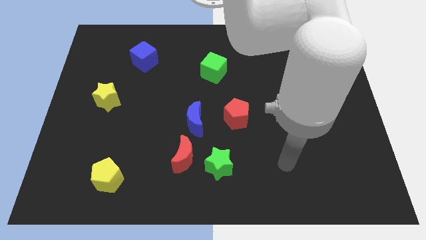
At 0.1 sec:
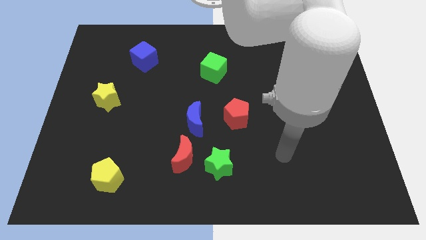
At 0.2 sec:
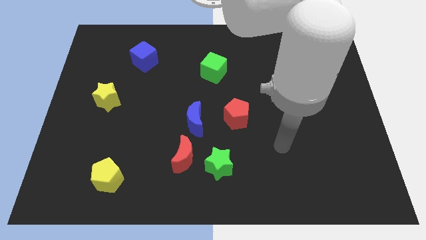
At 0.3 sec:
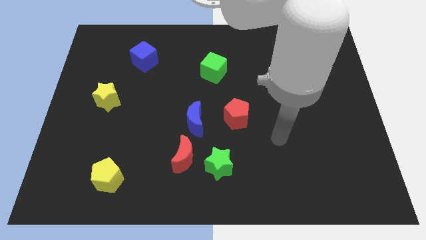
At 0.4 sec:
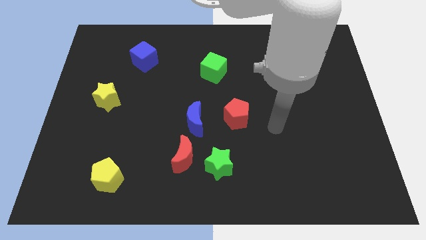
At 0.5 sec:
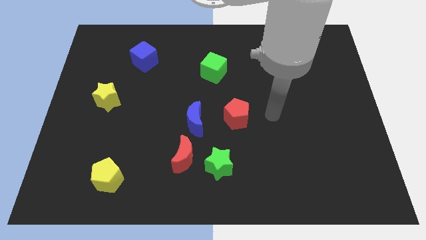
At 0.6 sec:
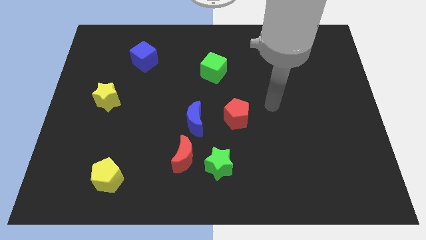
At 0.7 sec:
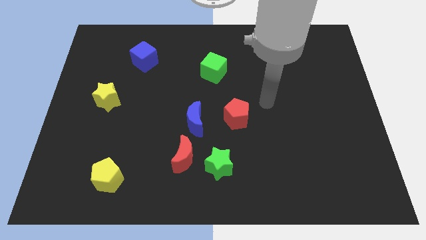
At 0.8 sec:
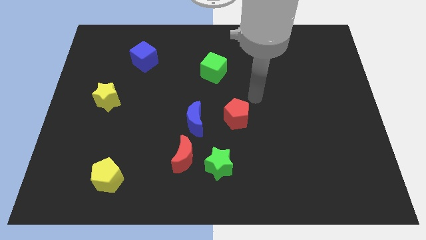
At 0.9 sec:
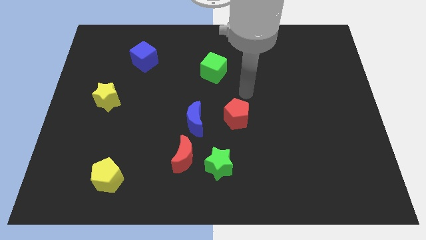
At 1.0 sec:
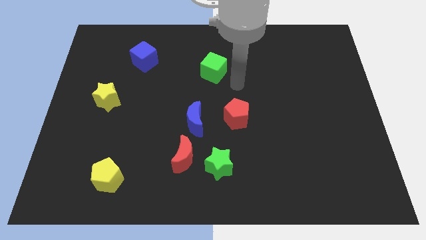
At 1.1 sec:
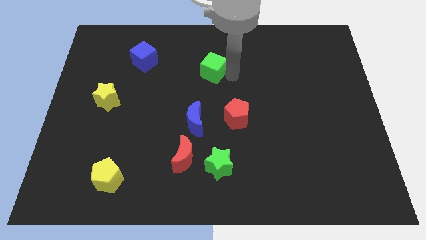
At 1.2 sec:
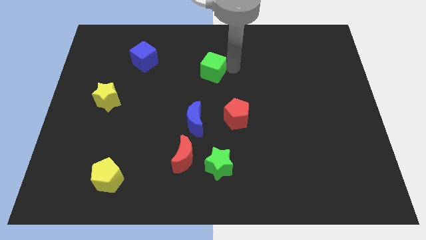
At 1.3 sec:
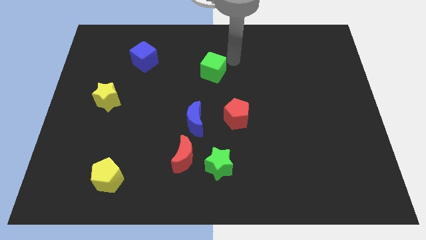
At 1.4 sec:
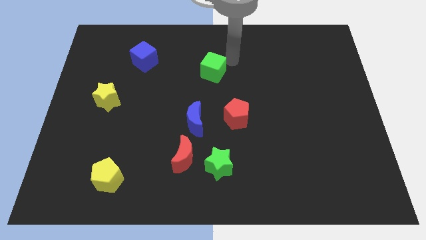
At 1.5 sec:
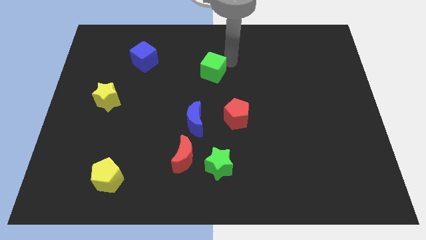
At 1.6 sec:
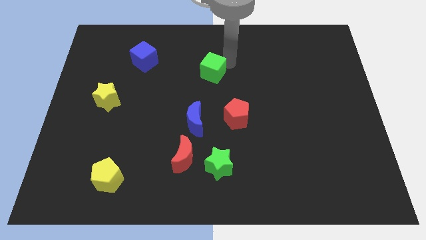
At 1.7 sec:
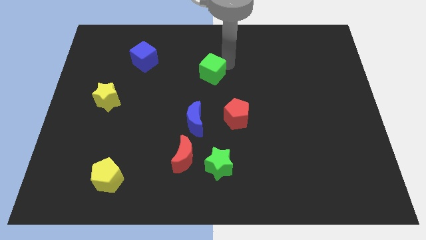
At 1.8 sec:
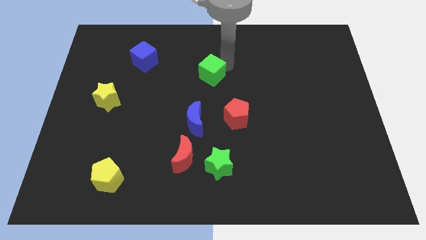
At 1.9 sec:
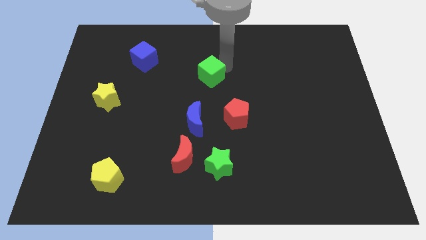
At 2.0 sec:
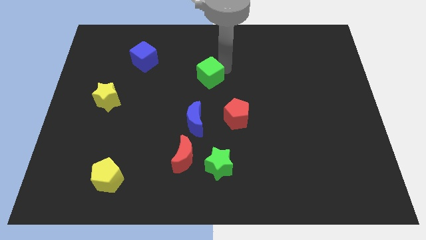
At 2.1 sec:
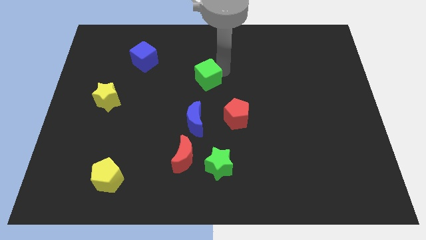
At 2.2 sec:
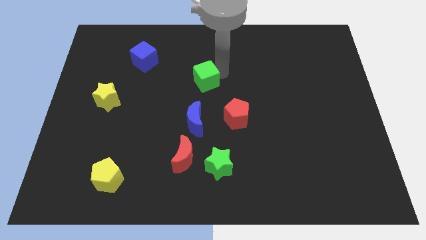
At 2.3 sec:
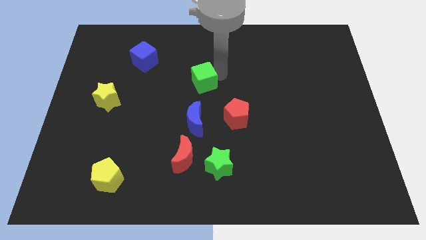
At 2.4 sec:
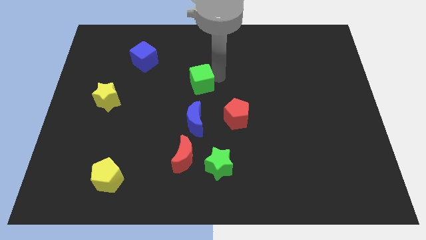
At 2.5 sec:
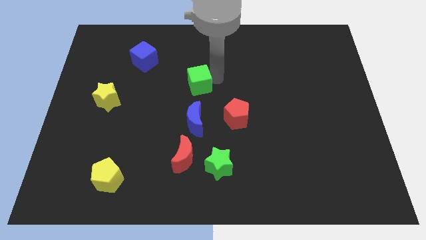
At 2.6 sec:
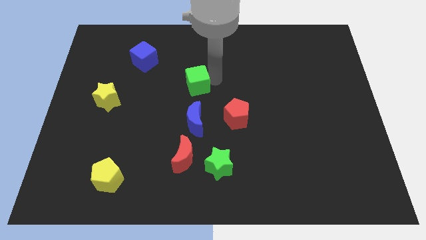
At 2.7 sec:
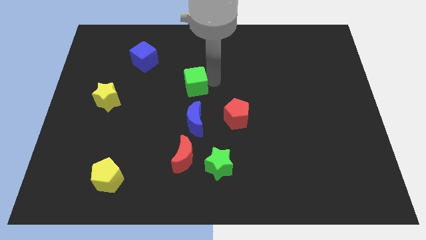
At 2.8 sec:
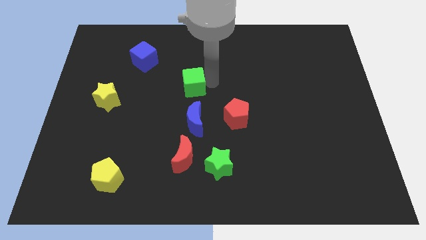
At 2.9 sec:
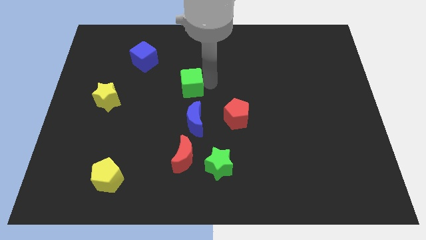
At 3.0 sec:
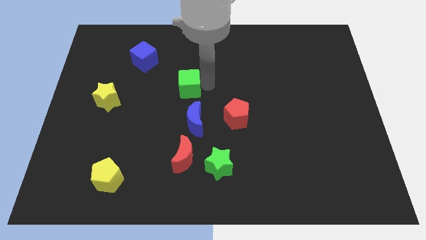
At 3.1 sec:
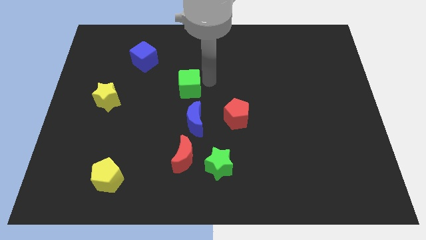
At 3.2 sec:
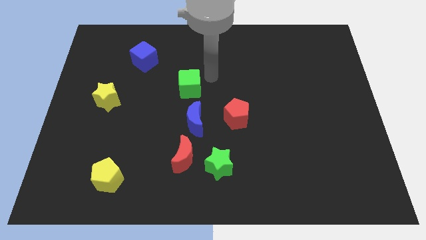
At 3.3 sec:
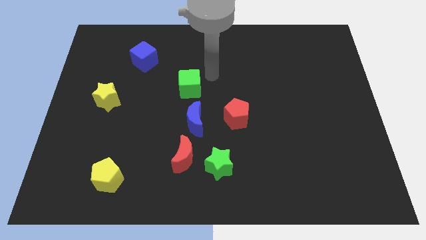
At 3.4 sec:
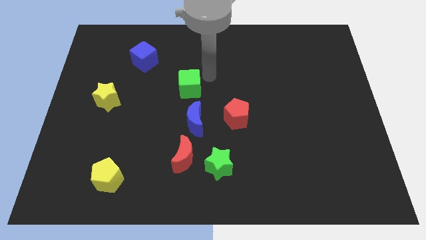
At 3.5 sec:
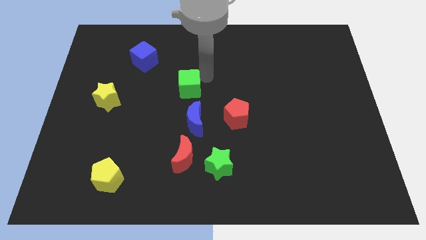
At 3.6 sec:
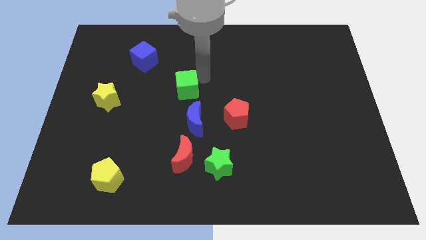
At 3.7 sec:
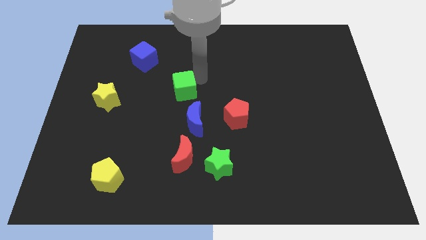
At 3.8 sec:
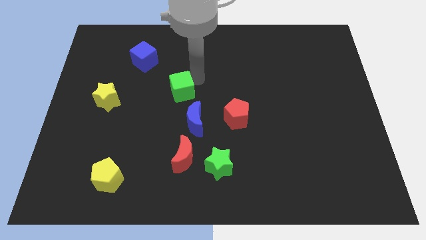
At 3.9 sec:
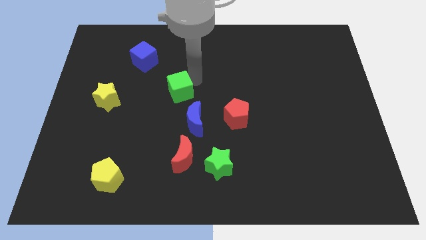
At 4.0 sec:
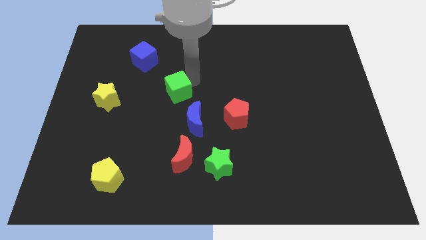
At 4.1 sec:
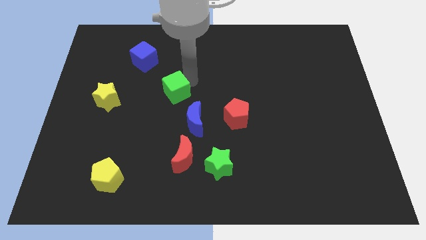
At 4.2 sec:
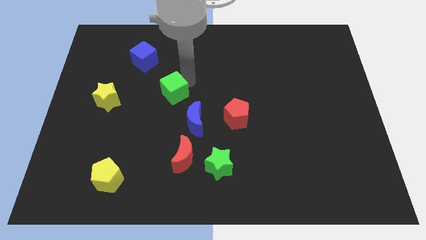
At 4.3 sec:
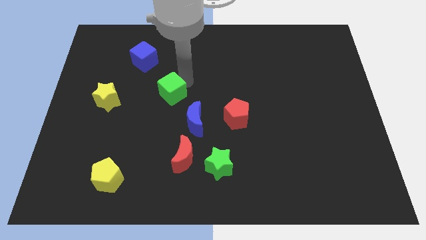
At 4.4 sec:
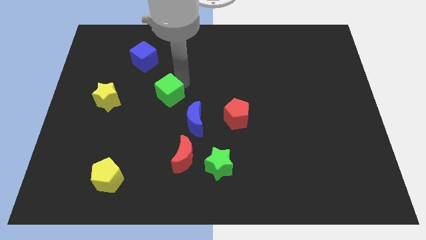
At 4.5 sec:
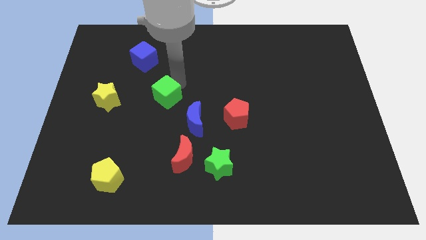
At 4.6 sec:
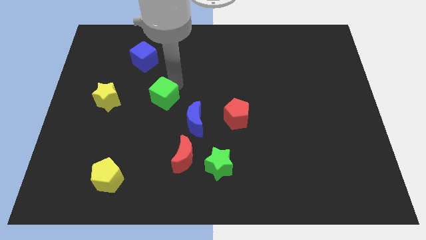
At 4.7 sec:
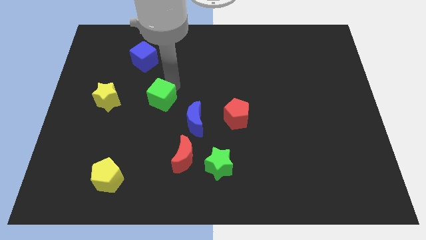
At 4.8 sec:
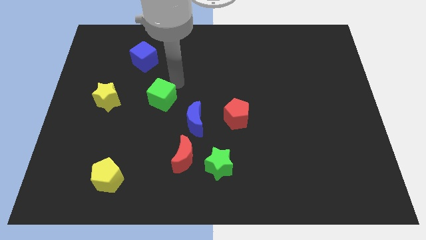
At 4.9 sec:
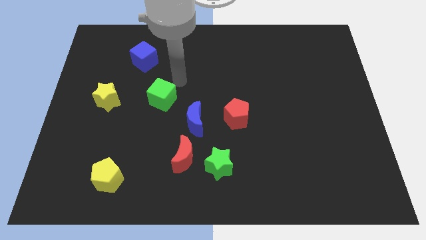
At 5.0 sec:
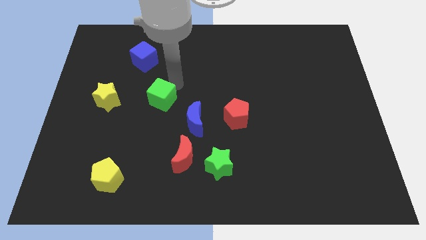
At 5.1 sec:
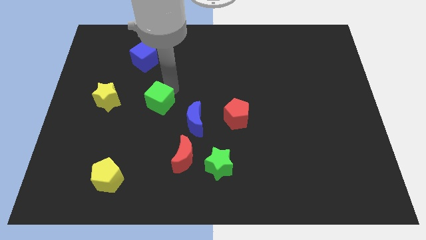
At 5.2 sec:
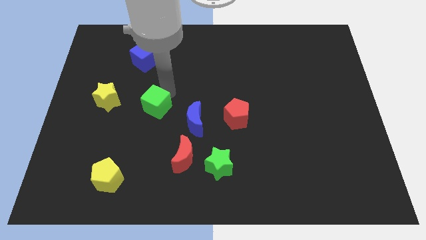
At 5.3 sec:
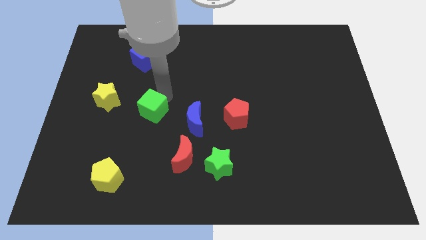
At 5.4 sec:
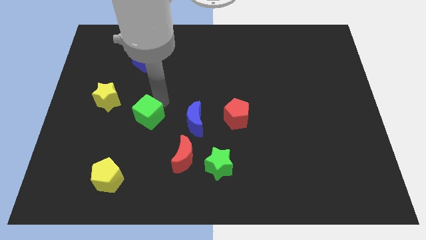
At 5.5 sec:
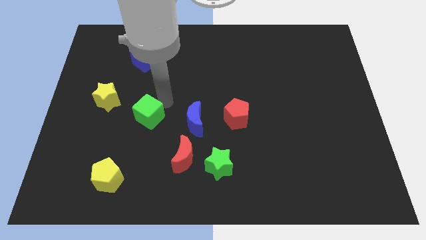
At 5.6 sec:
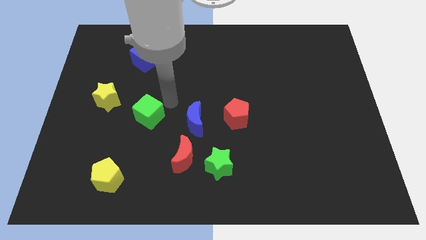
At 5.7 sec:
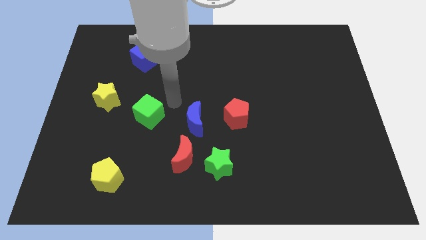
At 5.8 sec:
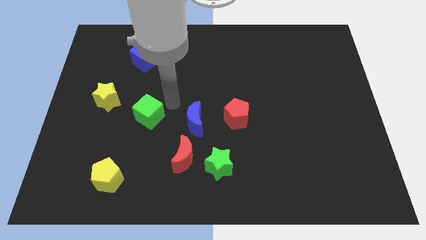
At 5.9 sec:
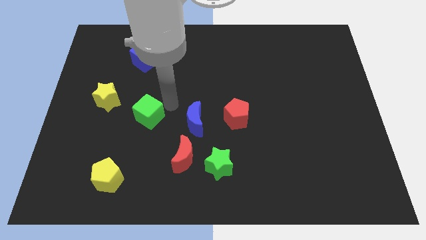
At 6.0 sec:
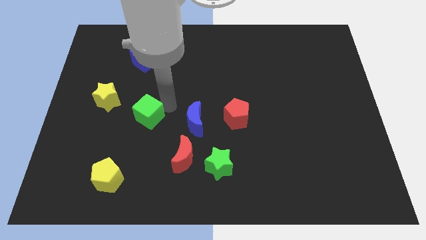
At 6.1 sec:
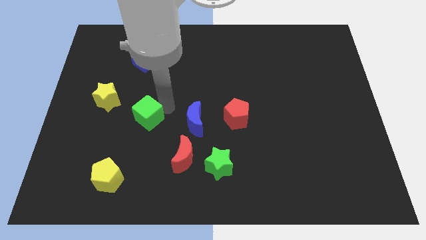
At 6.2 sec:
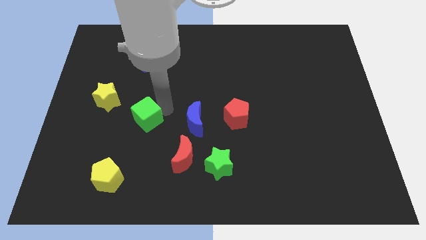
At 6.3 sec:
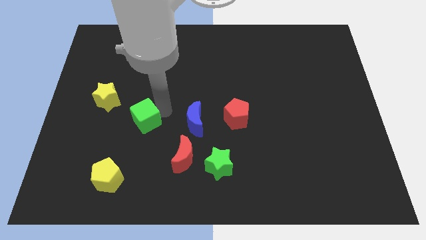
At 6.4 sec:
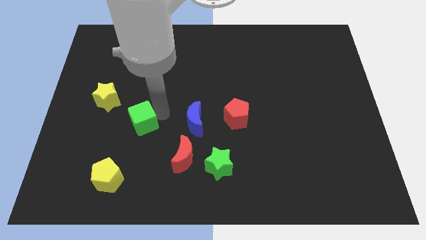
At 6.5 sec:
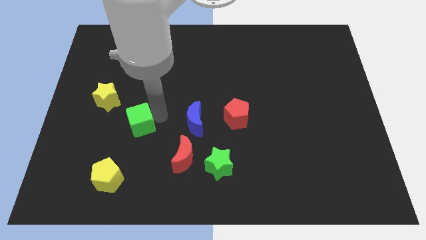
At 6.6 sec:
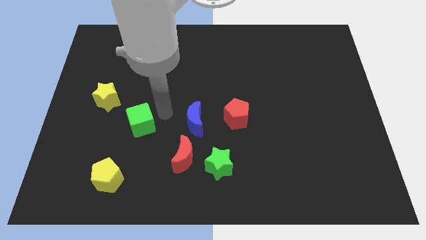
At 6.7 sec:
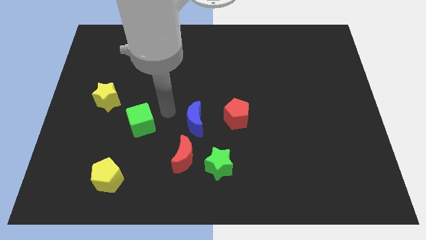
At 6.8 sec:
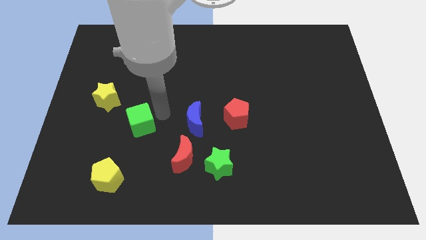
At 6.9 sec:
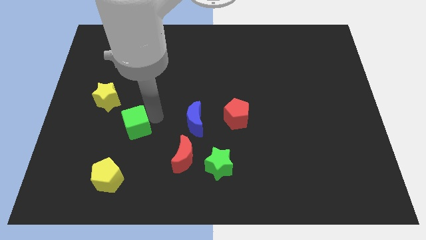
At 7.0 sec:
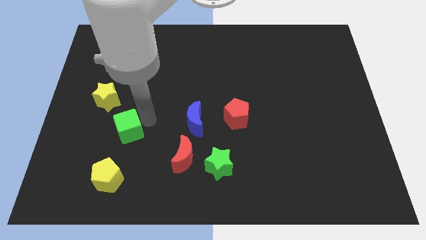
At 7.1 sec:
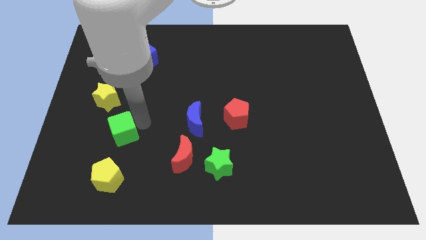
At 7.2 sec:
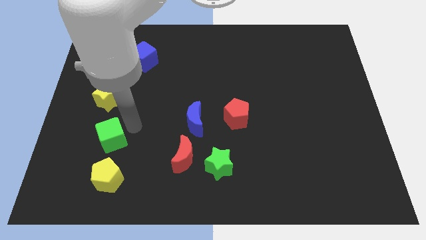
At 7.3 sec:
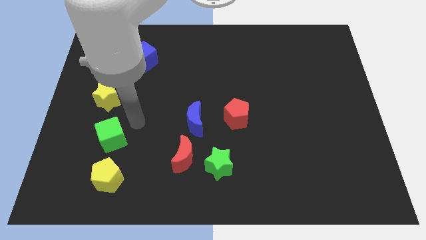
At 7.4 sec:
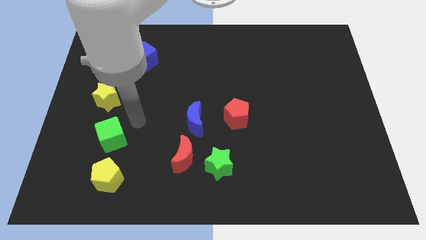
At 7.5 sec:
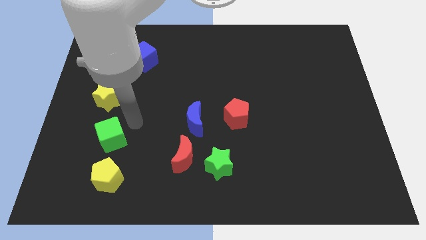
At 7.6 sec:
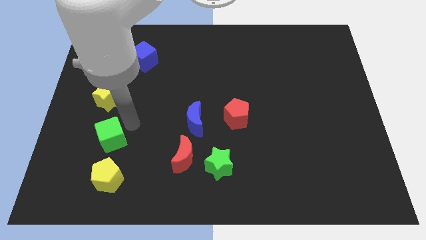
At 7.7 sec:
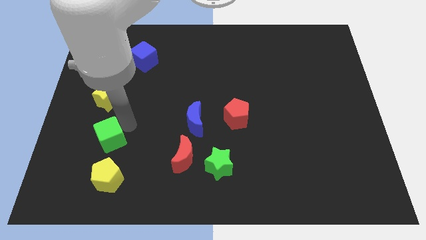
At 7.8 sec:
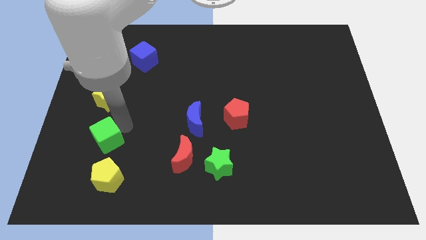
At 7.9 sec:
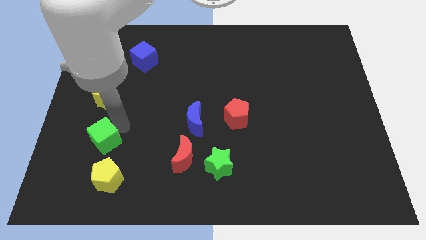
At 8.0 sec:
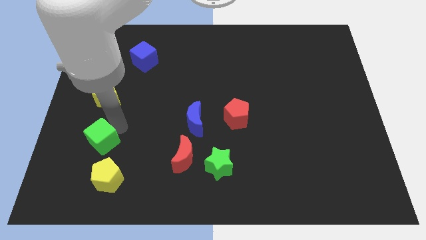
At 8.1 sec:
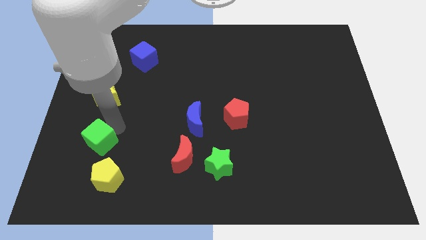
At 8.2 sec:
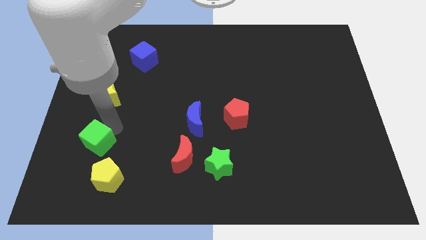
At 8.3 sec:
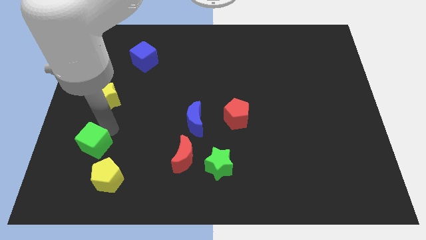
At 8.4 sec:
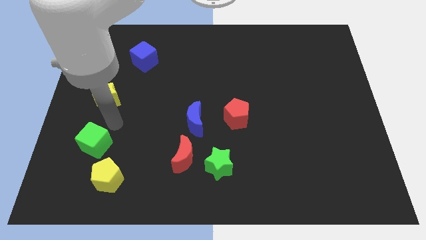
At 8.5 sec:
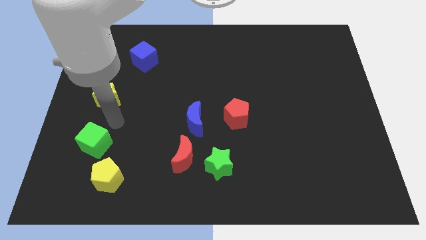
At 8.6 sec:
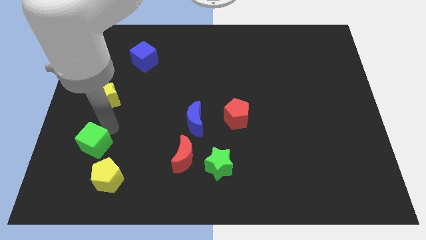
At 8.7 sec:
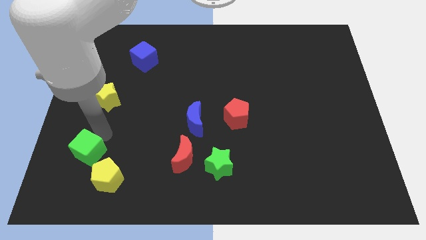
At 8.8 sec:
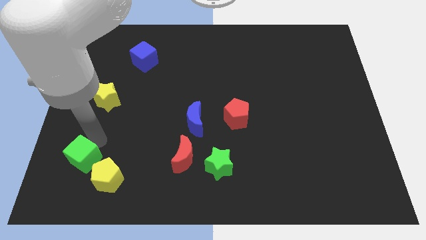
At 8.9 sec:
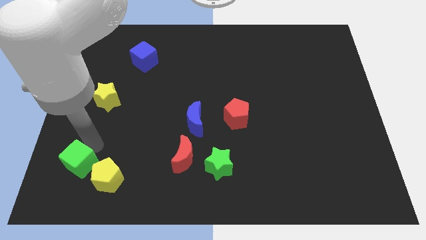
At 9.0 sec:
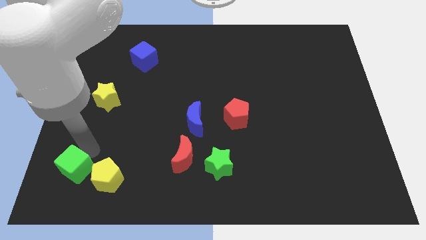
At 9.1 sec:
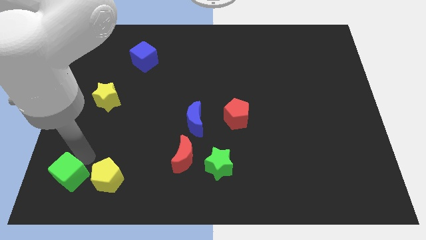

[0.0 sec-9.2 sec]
put the green cube to the bottom left corner
